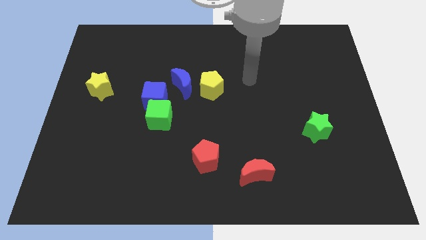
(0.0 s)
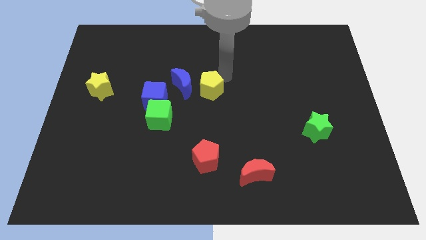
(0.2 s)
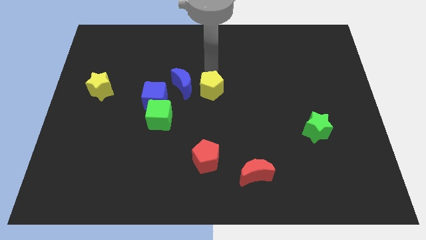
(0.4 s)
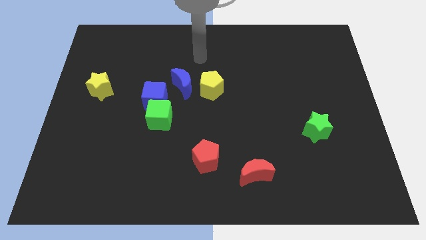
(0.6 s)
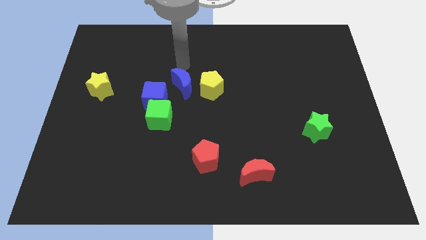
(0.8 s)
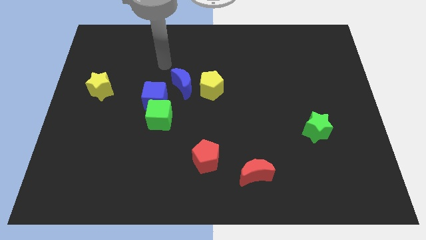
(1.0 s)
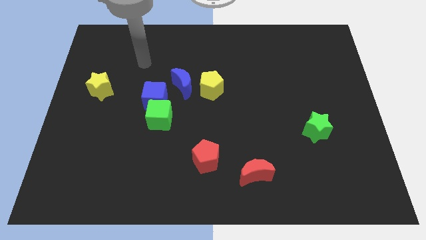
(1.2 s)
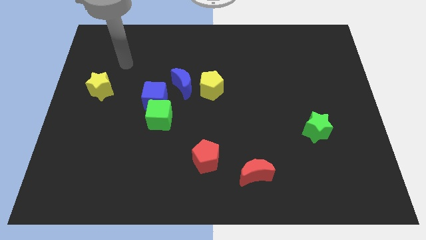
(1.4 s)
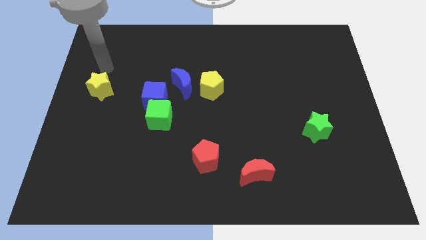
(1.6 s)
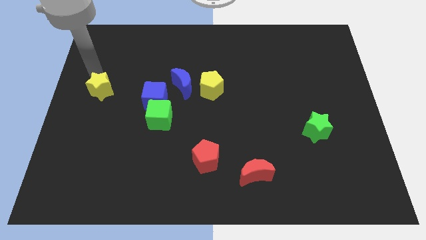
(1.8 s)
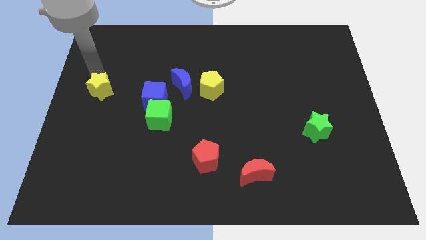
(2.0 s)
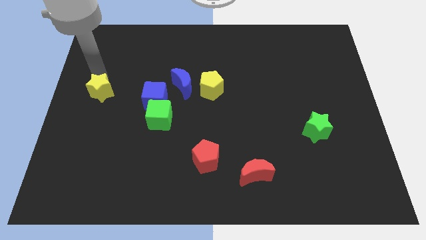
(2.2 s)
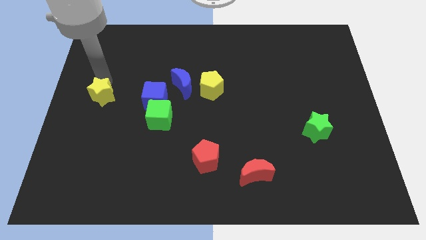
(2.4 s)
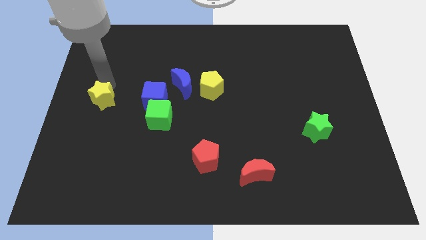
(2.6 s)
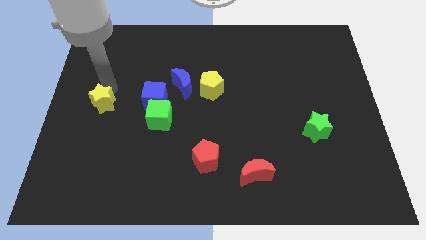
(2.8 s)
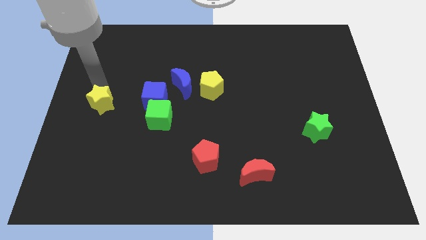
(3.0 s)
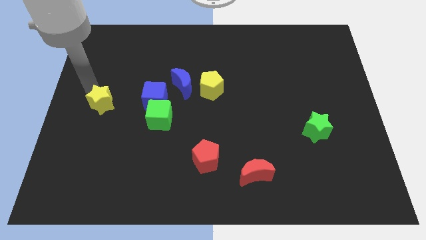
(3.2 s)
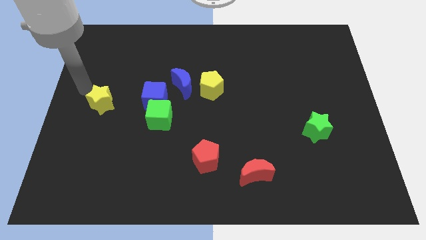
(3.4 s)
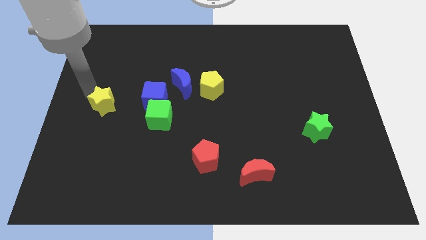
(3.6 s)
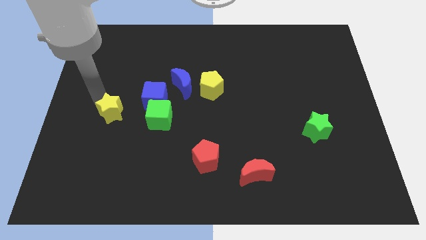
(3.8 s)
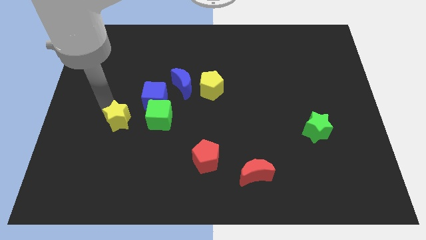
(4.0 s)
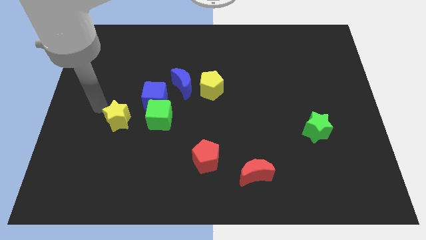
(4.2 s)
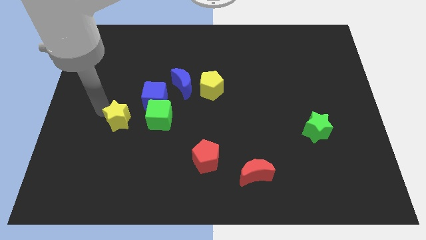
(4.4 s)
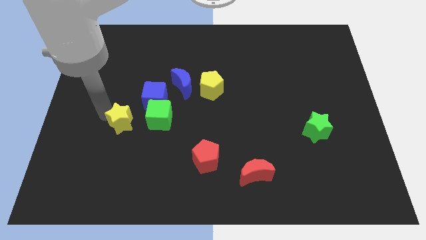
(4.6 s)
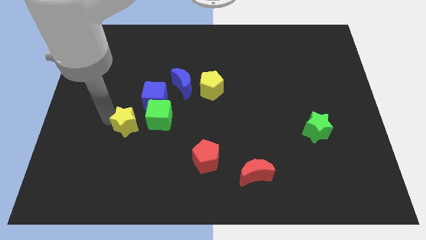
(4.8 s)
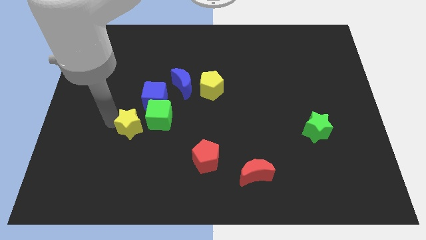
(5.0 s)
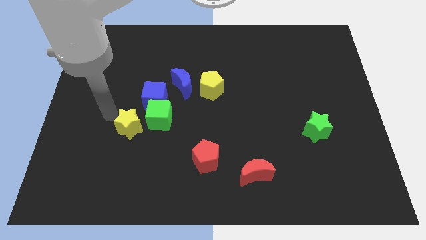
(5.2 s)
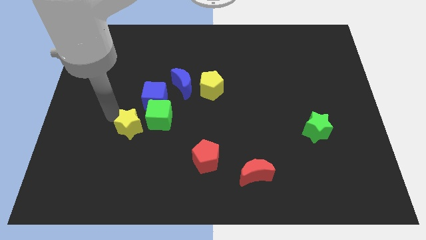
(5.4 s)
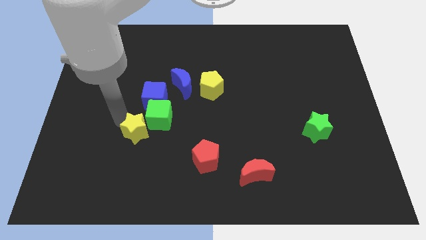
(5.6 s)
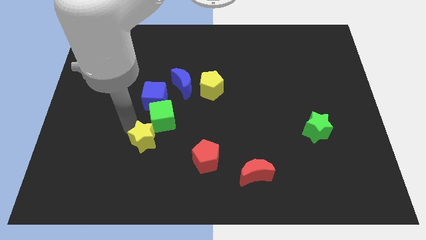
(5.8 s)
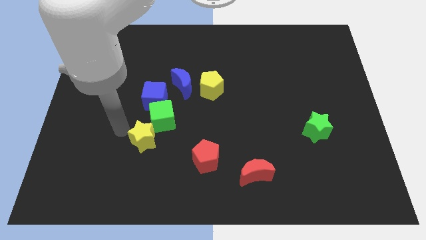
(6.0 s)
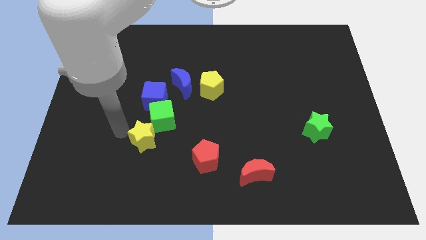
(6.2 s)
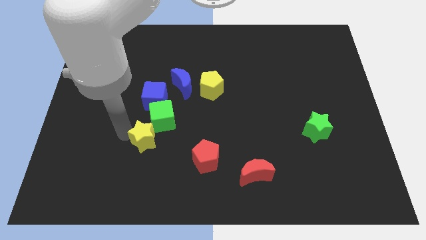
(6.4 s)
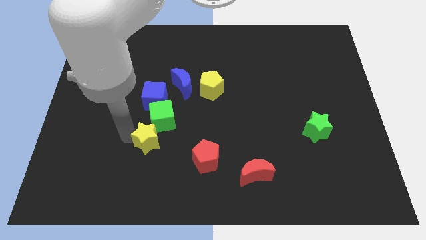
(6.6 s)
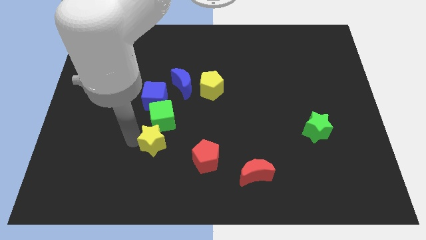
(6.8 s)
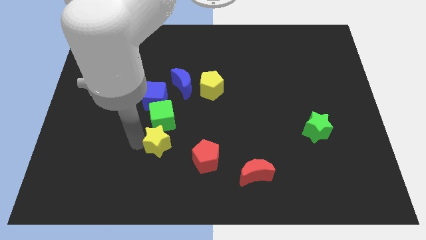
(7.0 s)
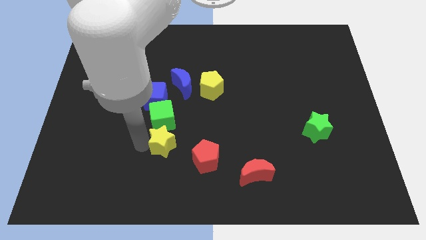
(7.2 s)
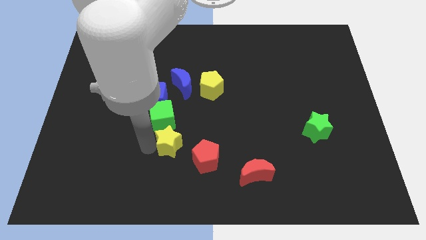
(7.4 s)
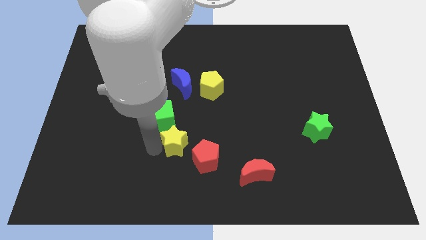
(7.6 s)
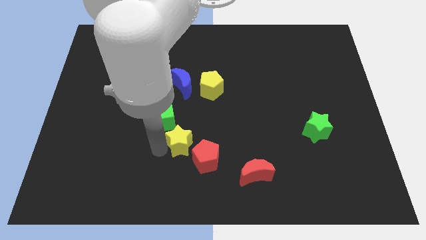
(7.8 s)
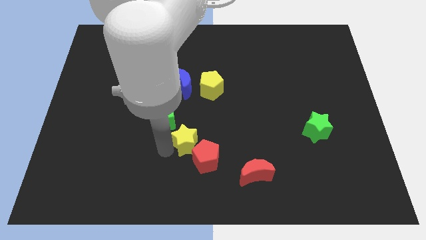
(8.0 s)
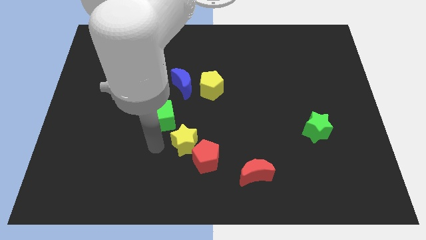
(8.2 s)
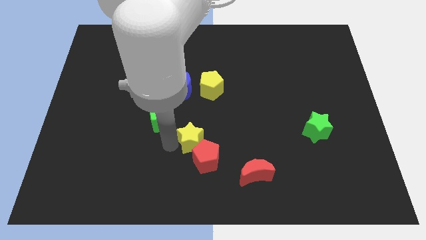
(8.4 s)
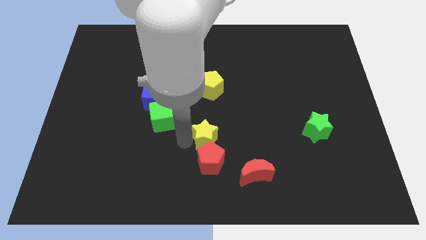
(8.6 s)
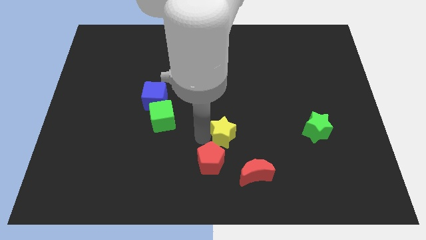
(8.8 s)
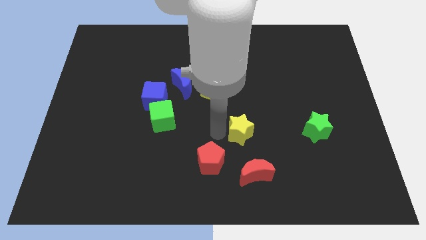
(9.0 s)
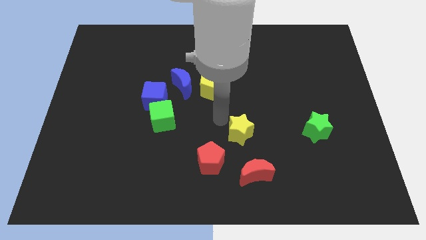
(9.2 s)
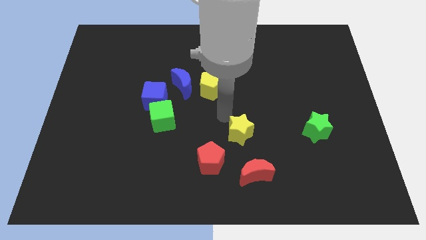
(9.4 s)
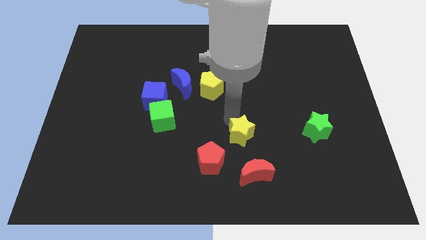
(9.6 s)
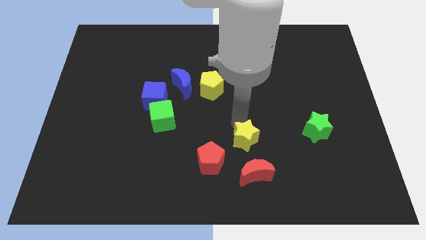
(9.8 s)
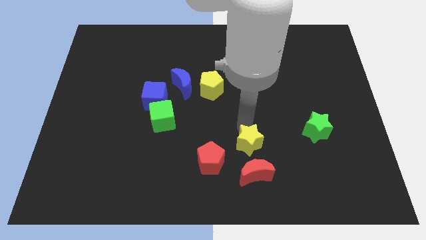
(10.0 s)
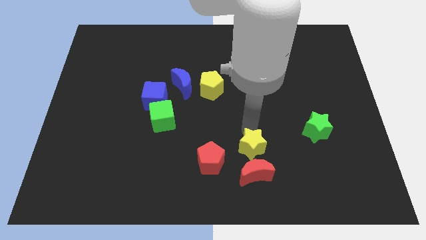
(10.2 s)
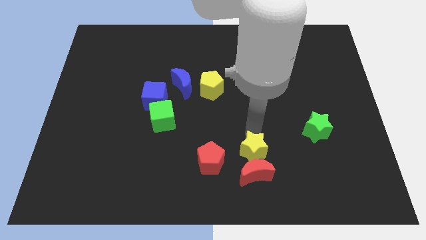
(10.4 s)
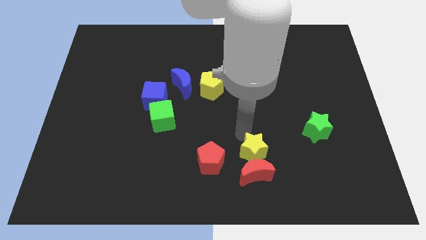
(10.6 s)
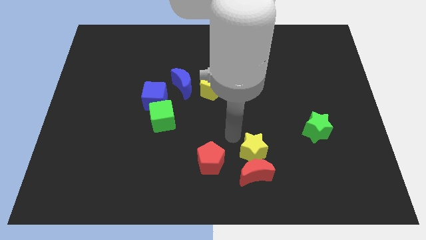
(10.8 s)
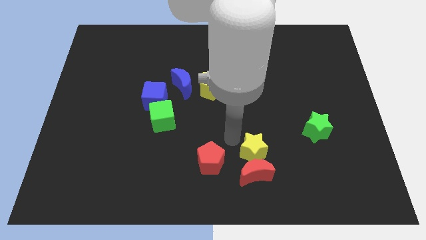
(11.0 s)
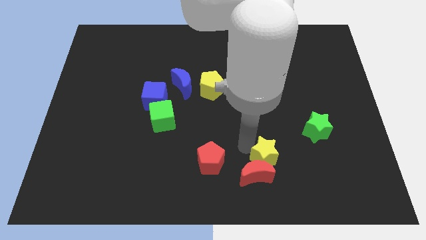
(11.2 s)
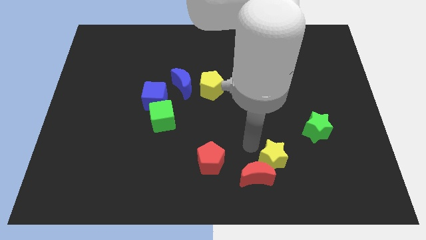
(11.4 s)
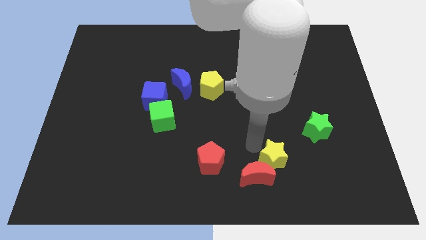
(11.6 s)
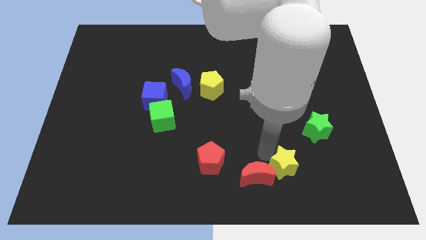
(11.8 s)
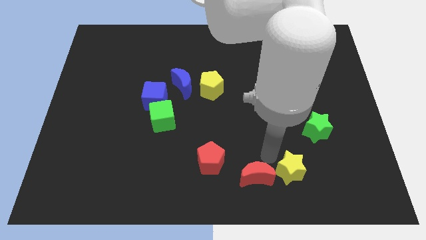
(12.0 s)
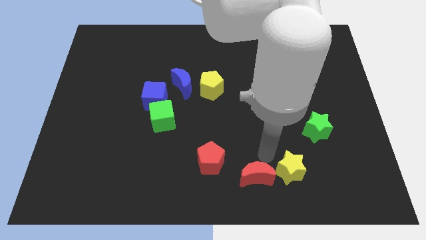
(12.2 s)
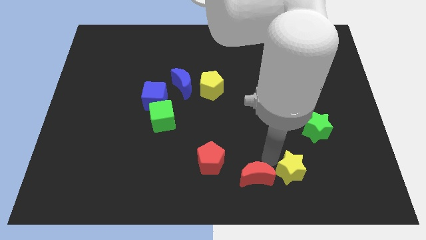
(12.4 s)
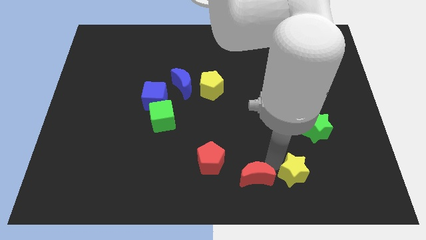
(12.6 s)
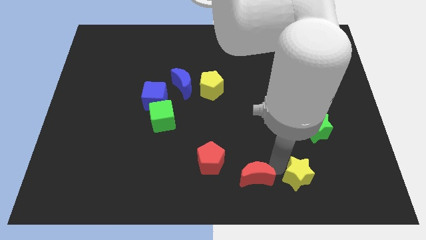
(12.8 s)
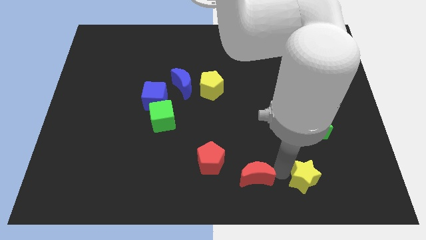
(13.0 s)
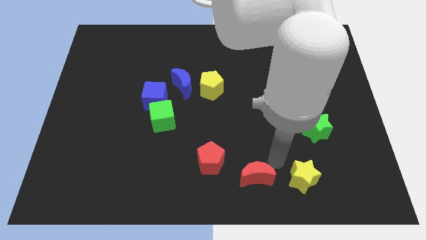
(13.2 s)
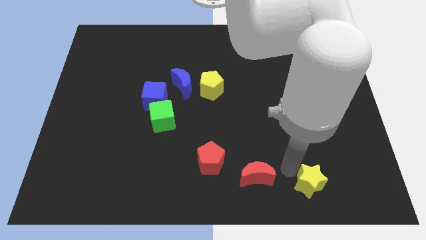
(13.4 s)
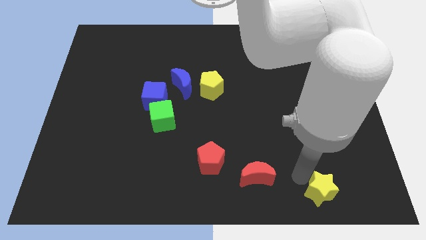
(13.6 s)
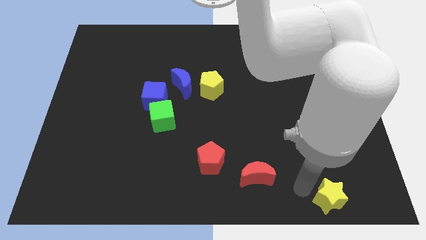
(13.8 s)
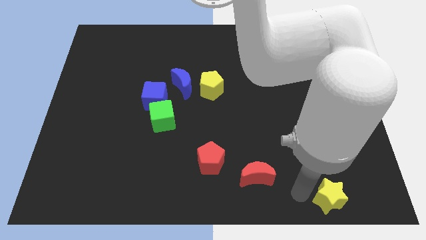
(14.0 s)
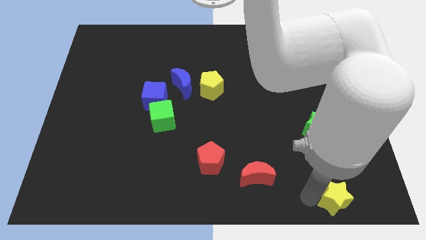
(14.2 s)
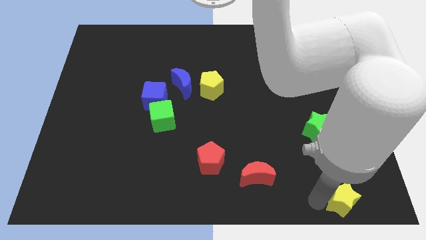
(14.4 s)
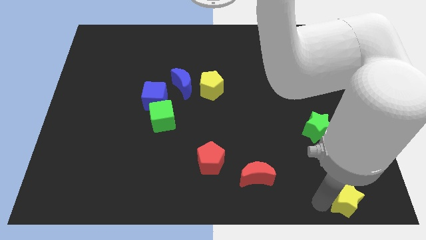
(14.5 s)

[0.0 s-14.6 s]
move the yellow star to the lower right corner
